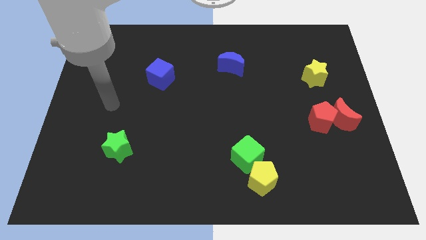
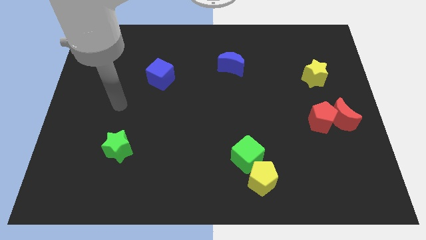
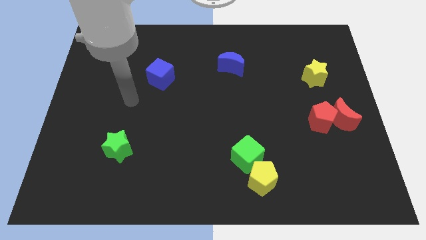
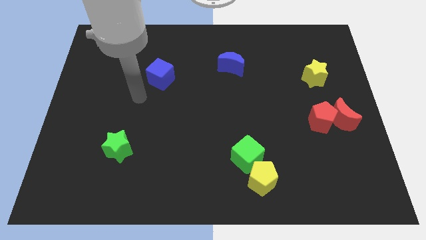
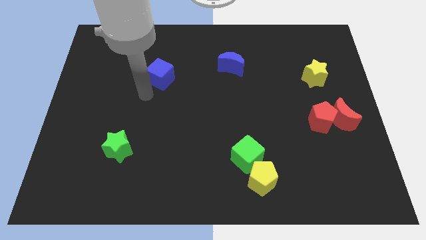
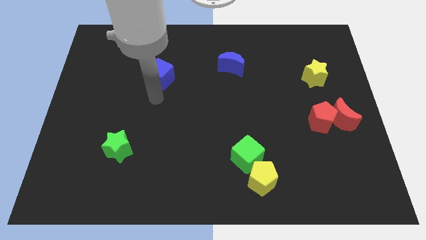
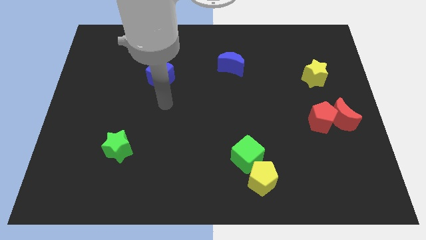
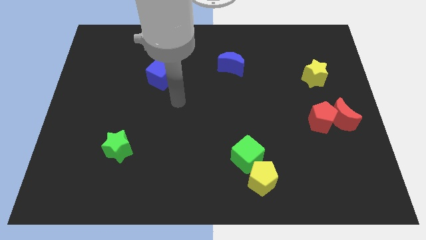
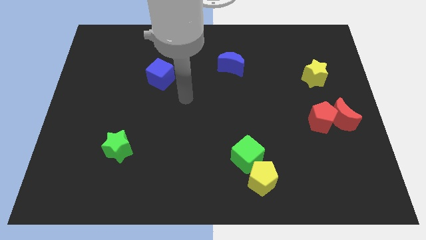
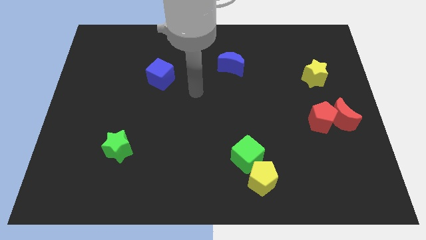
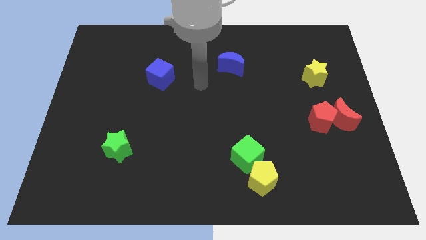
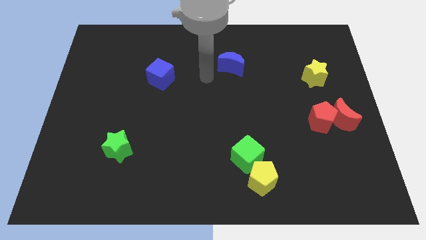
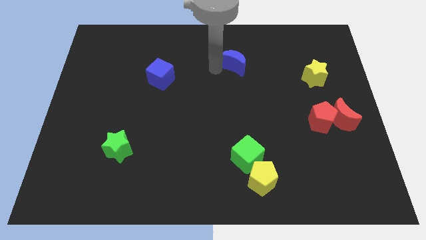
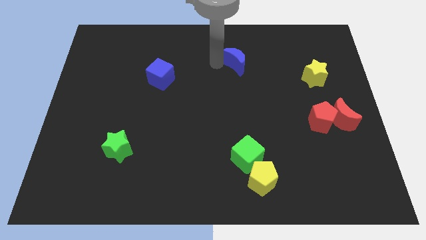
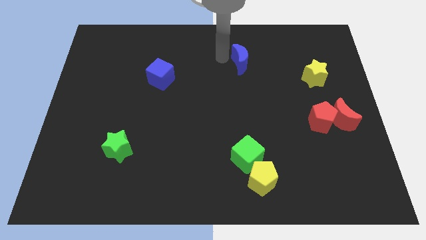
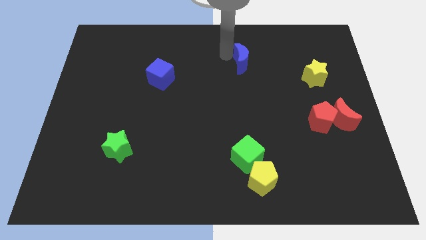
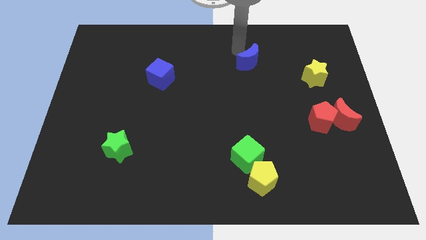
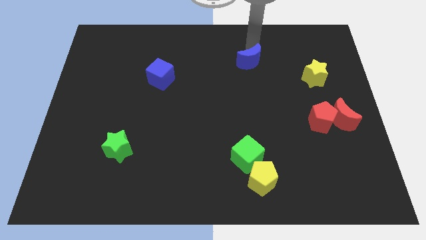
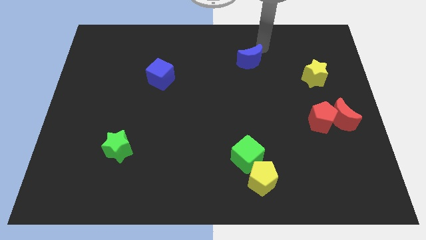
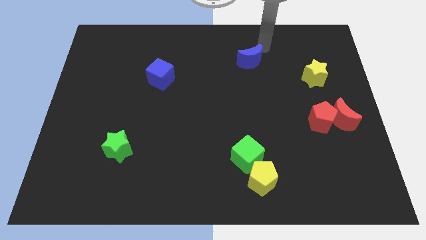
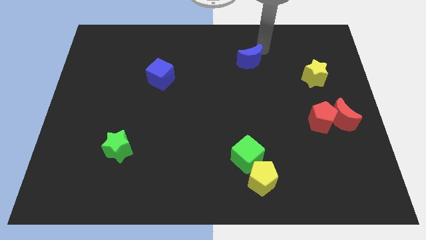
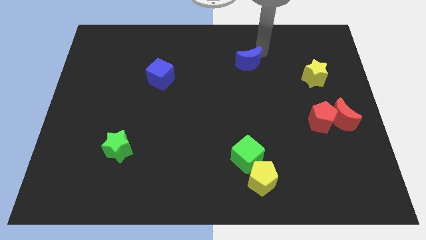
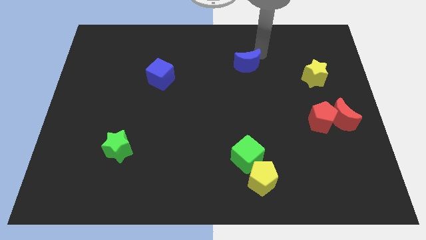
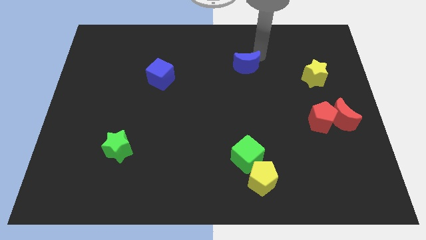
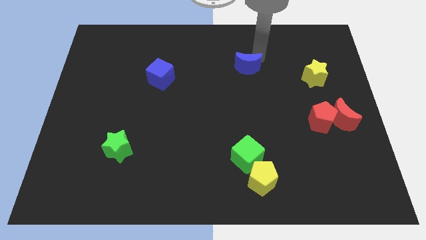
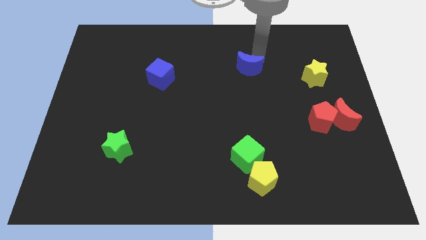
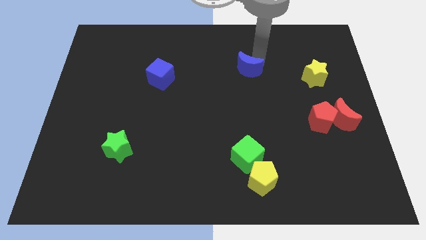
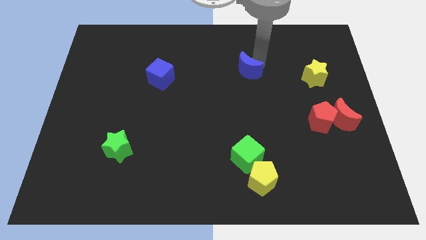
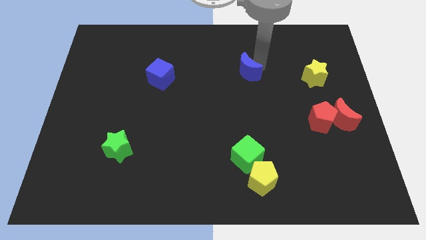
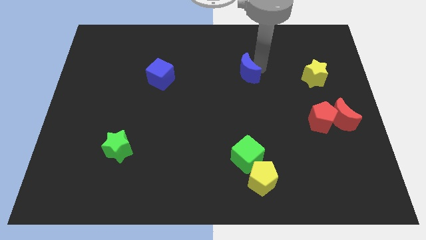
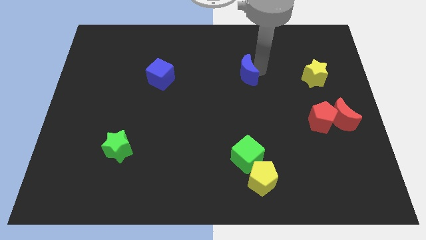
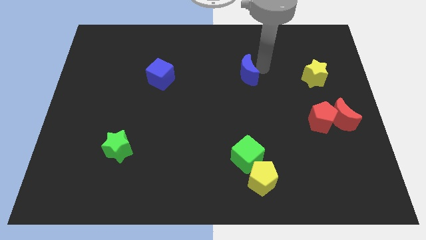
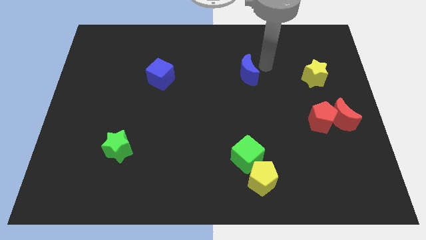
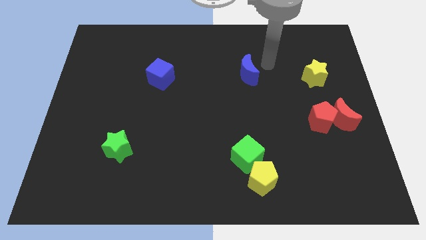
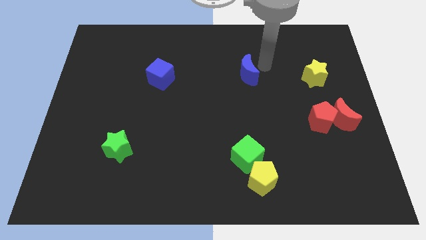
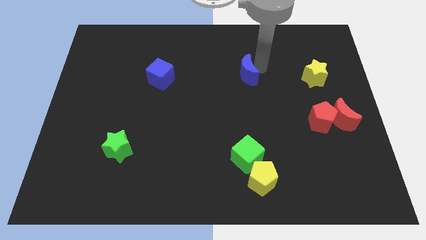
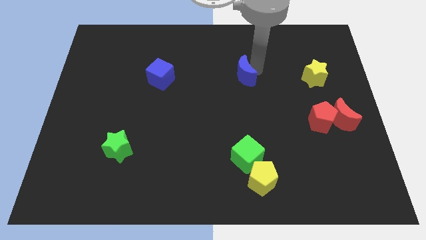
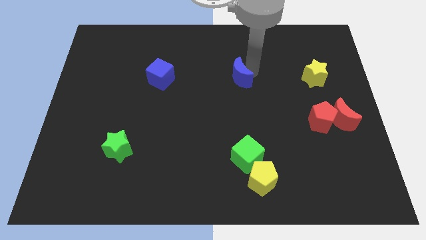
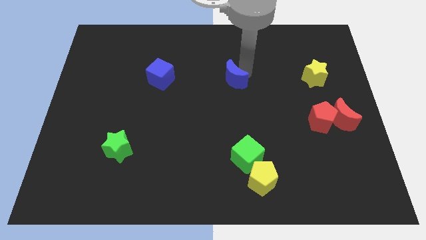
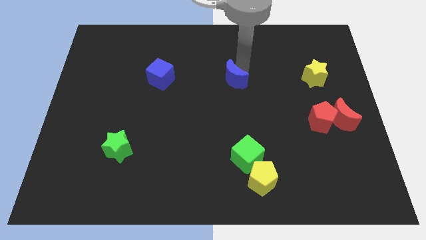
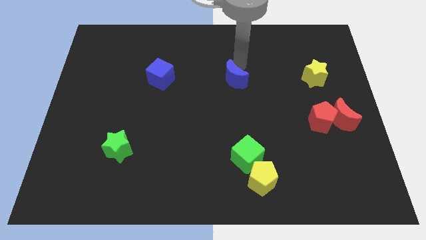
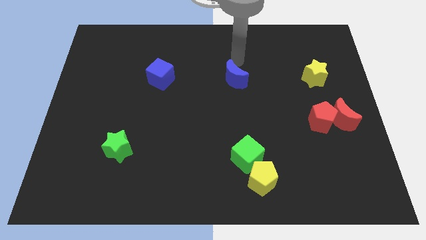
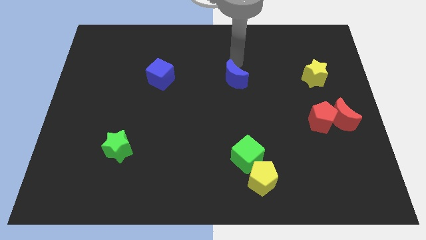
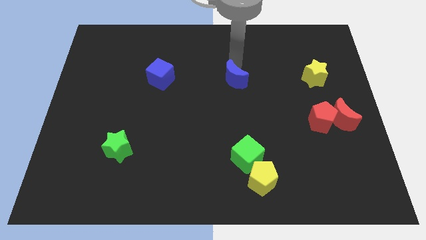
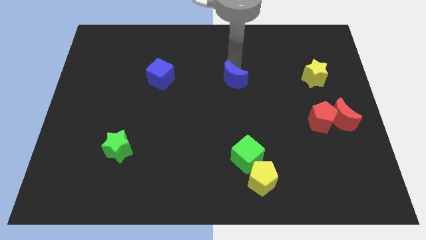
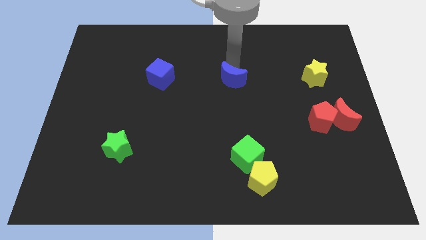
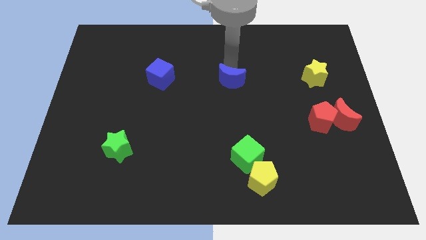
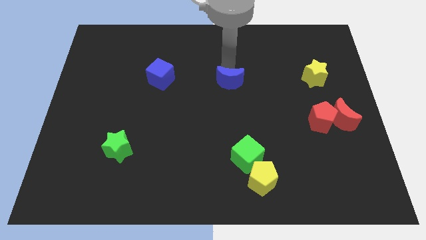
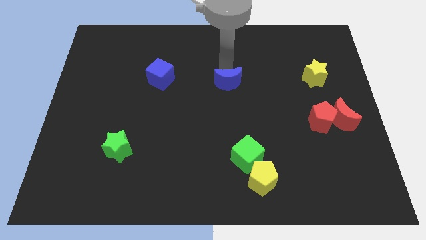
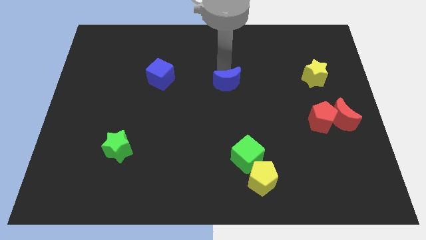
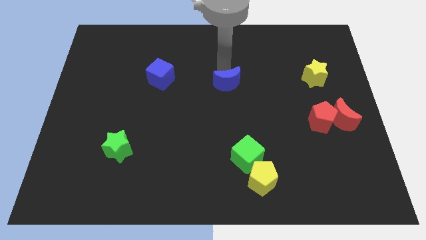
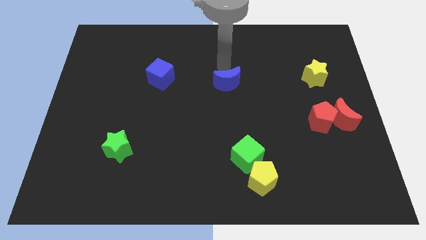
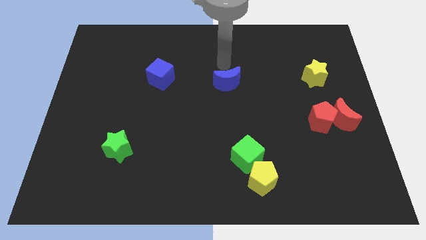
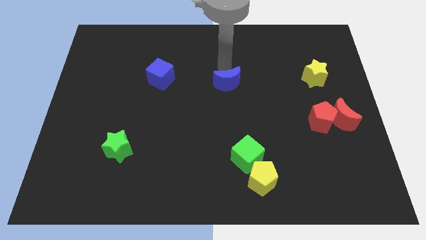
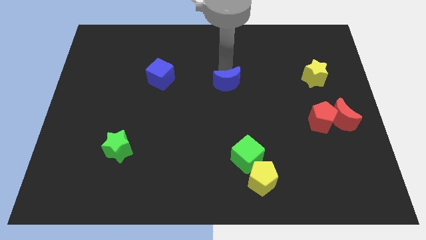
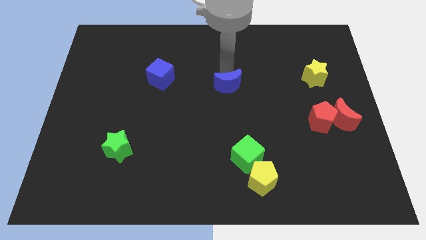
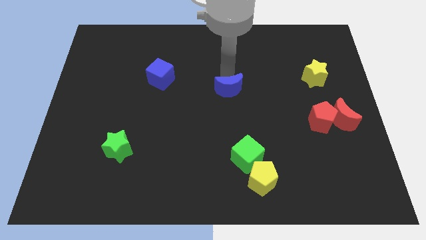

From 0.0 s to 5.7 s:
move the blue moon downwards a little bit

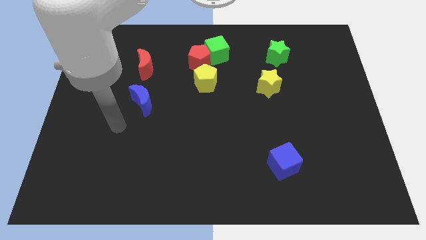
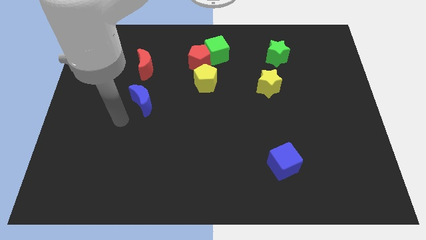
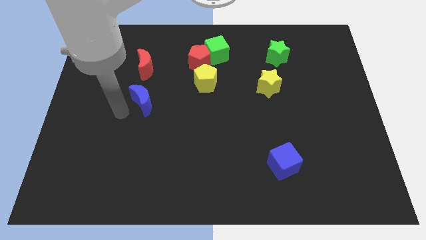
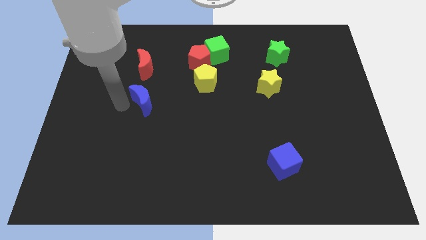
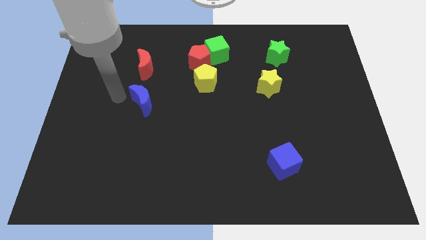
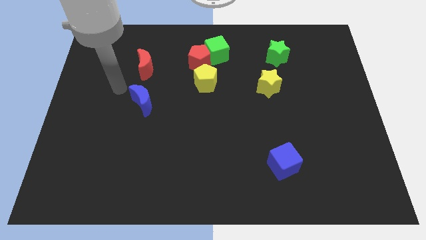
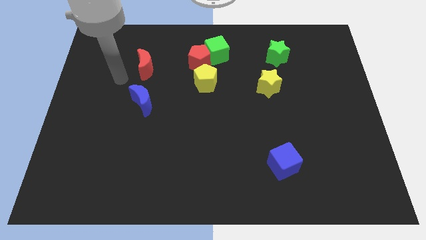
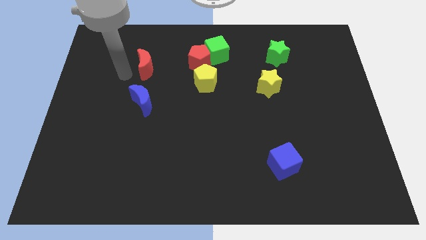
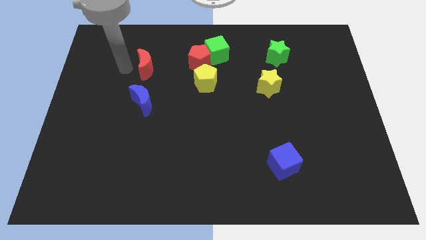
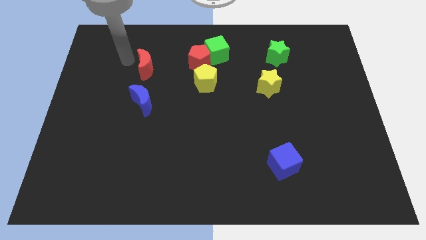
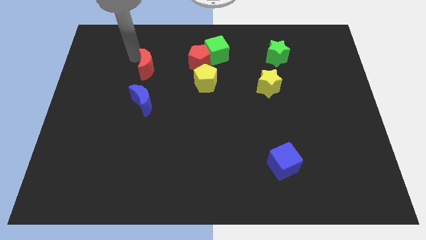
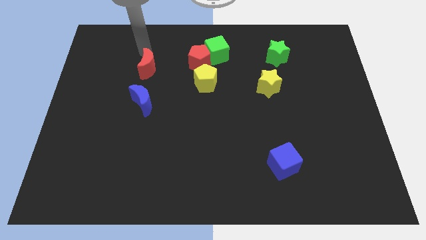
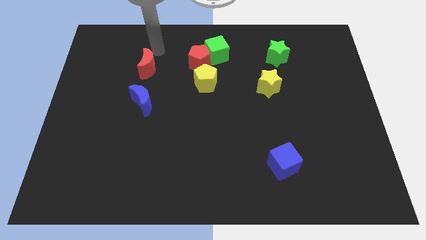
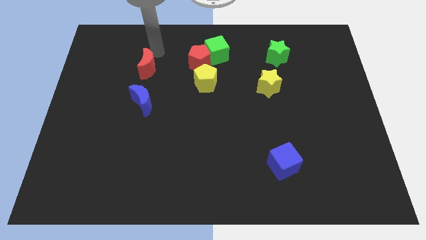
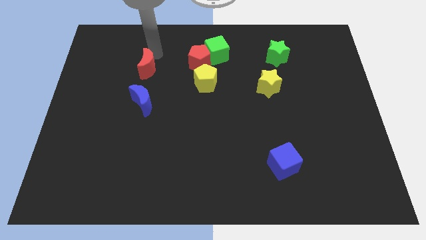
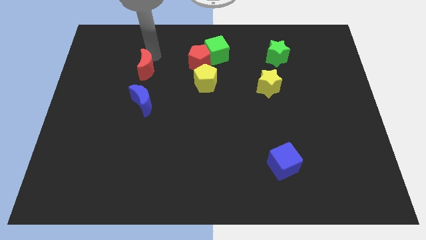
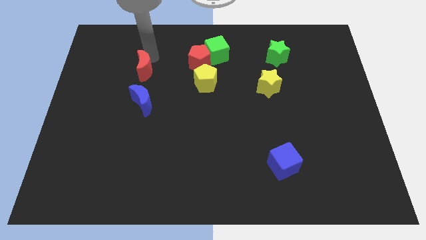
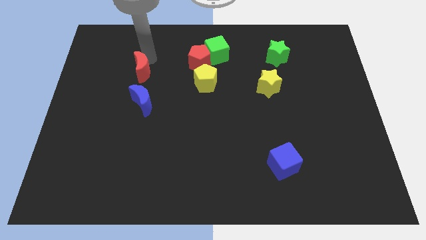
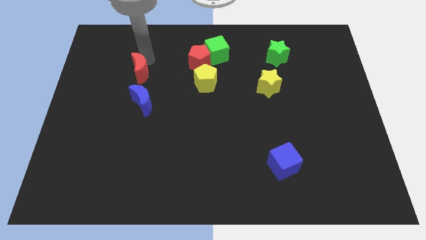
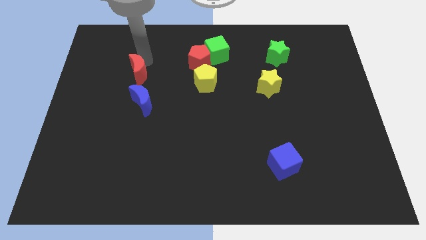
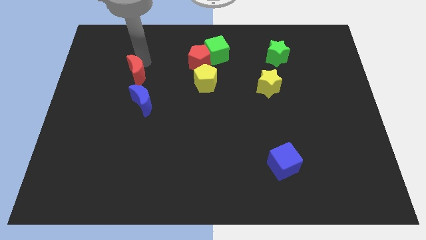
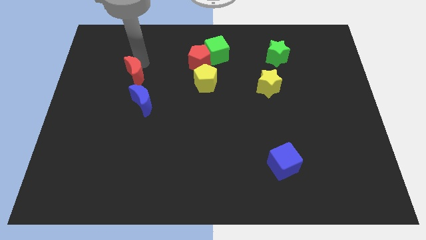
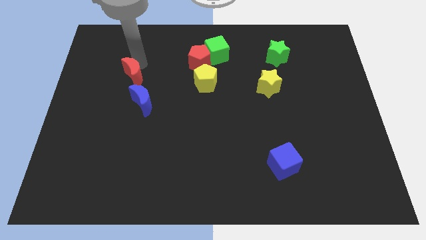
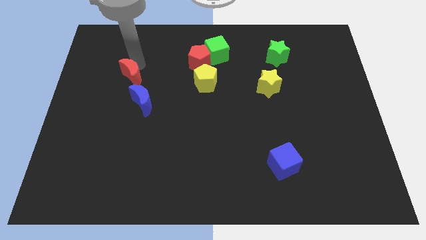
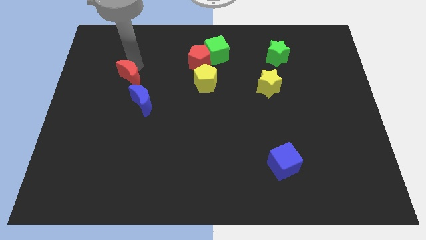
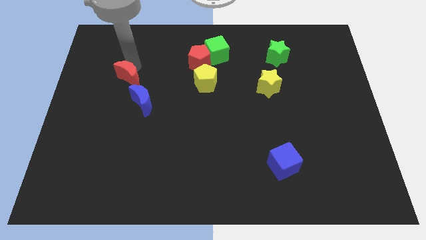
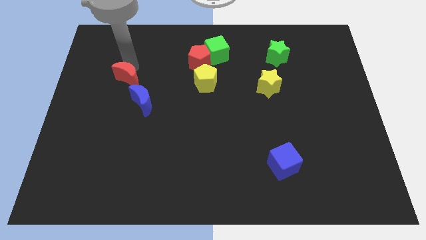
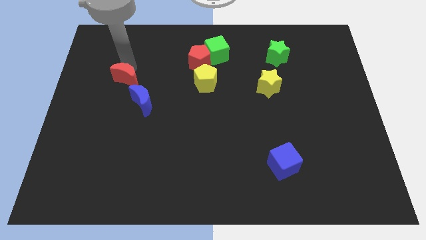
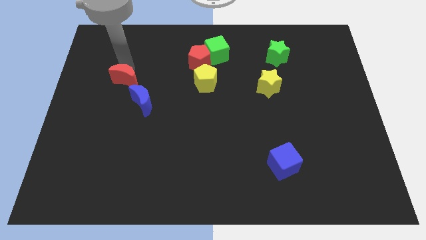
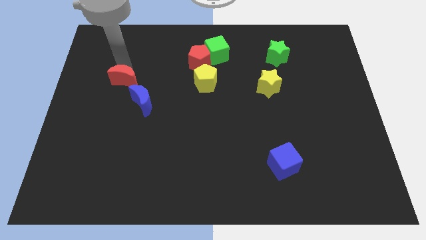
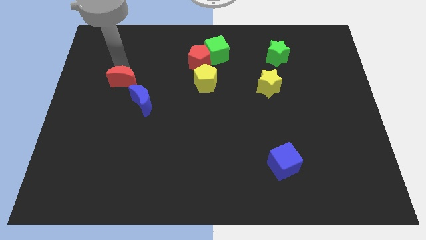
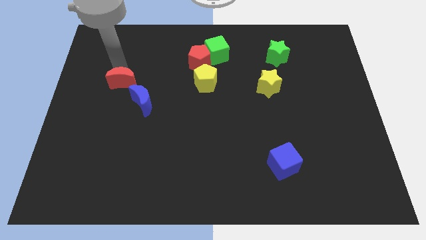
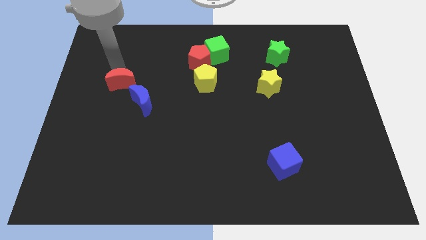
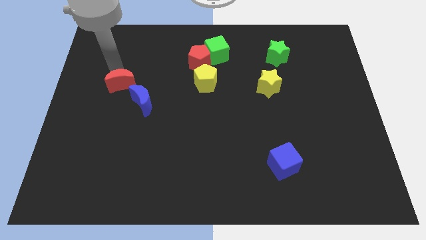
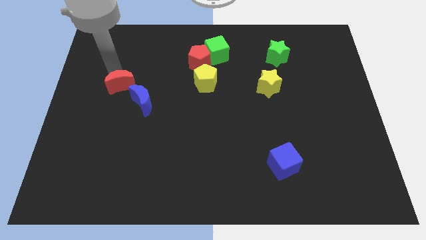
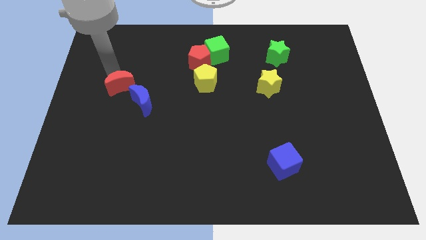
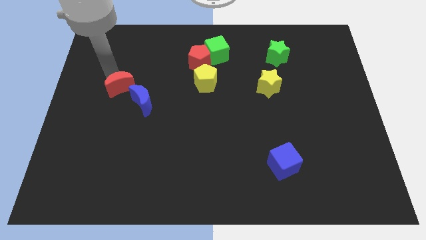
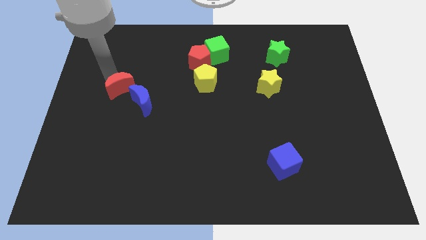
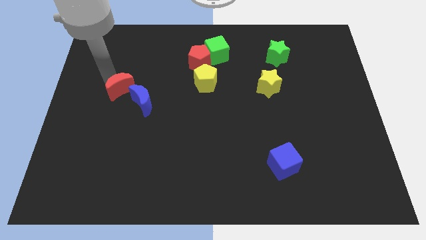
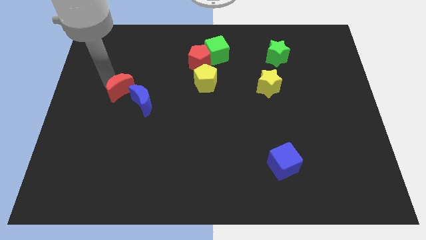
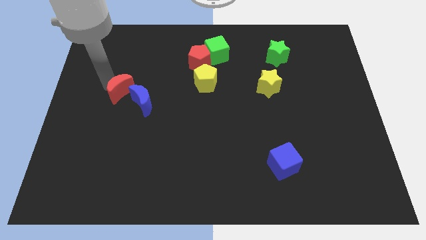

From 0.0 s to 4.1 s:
push the red moon a little downwards
